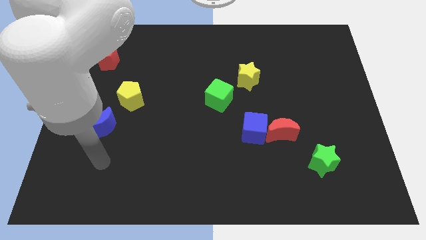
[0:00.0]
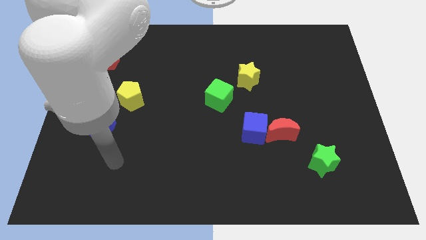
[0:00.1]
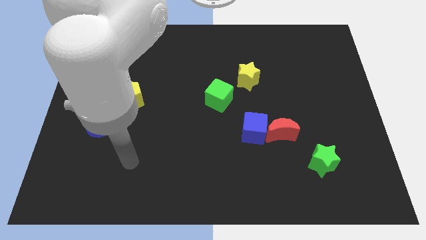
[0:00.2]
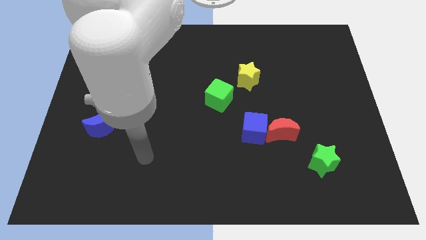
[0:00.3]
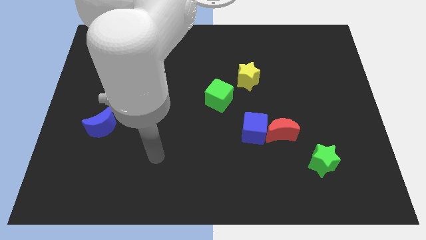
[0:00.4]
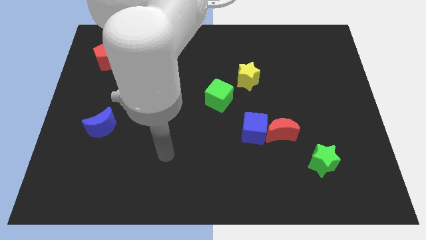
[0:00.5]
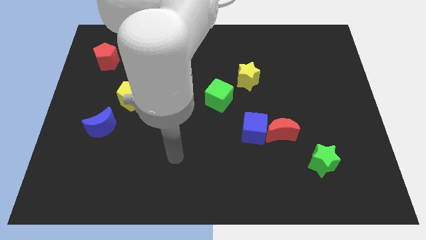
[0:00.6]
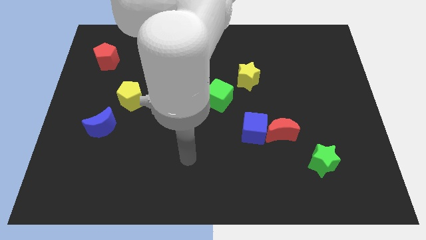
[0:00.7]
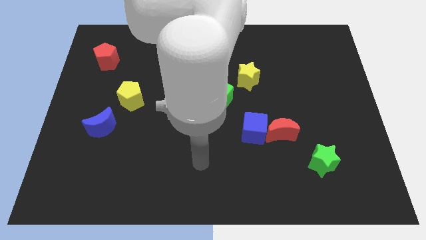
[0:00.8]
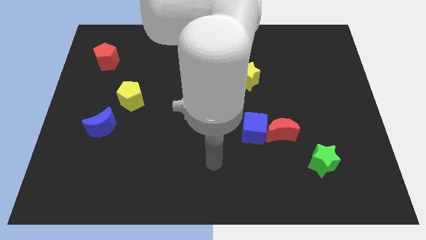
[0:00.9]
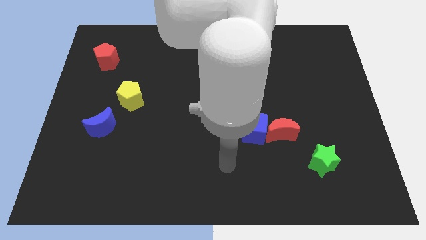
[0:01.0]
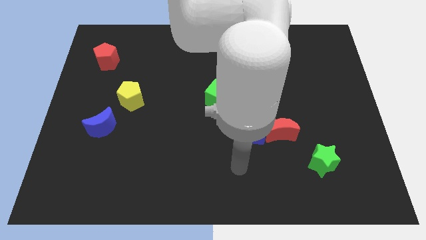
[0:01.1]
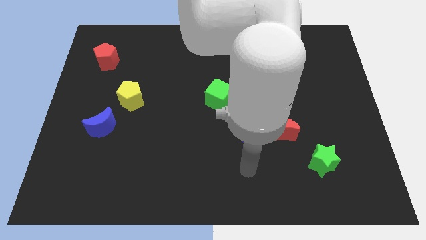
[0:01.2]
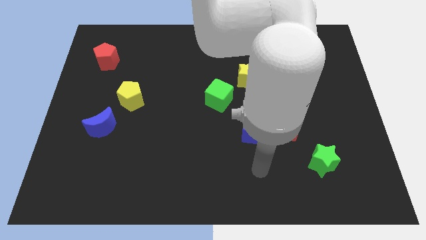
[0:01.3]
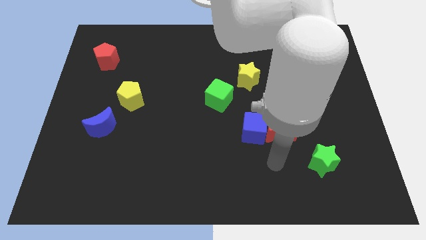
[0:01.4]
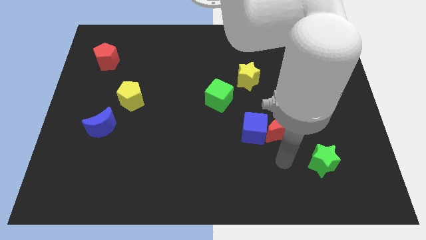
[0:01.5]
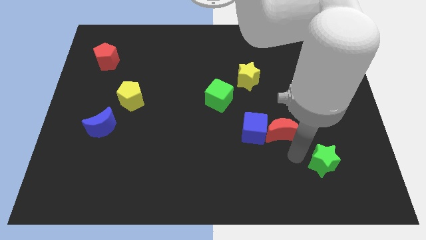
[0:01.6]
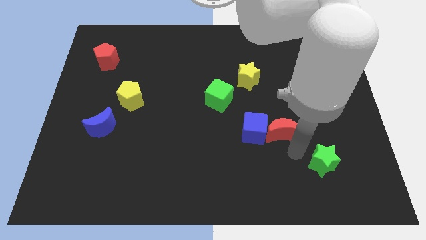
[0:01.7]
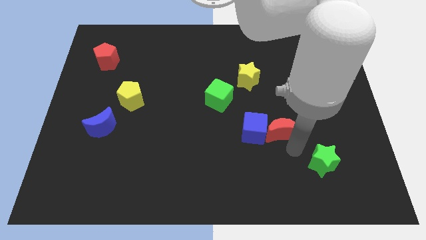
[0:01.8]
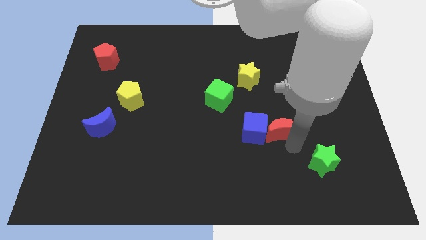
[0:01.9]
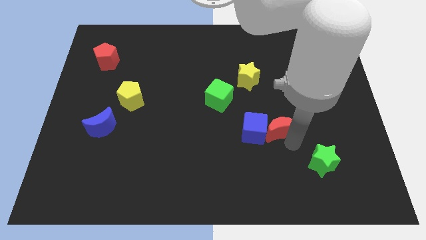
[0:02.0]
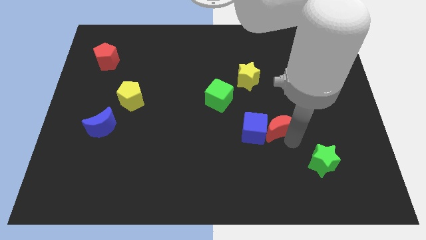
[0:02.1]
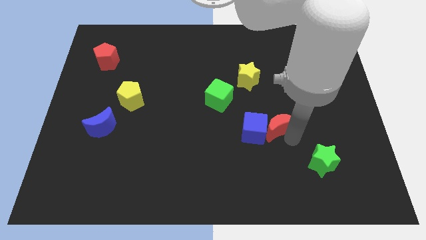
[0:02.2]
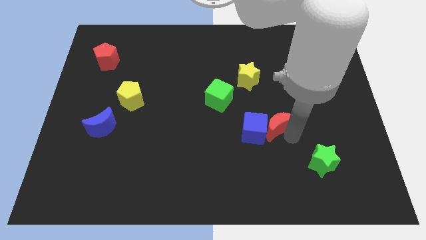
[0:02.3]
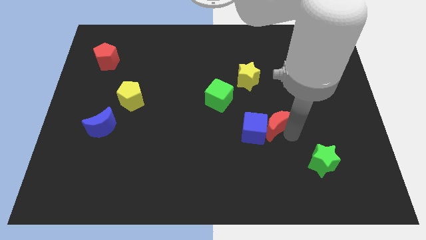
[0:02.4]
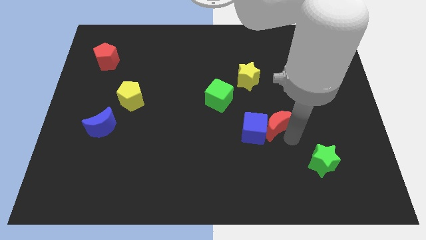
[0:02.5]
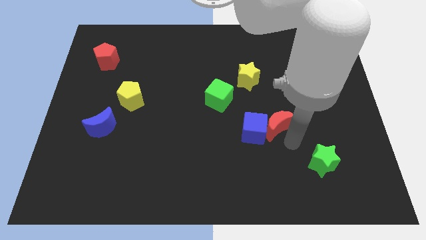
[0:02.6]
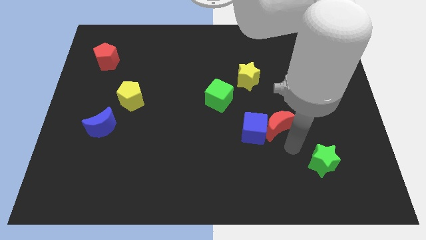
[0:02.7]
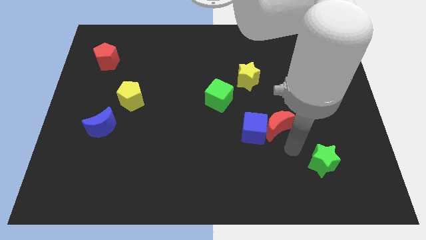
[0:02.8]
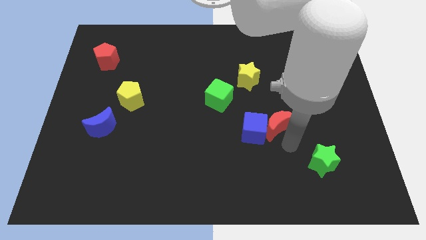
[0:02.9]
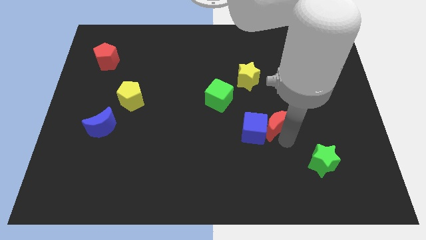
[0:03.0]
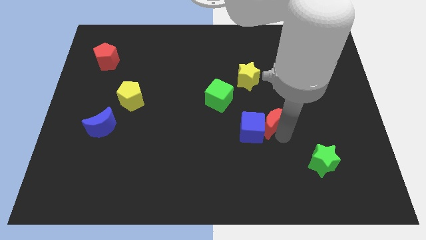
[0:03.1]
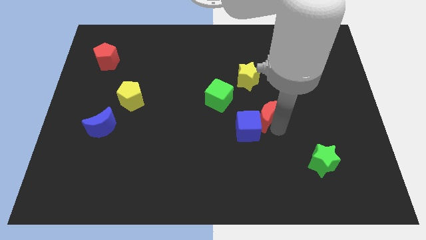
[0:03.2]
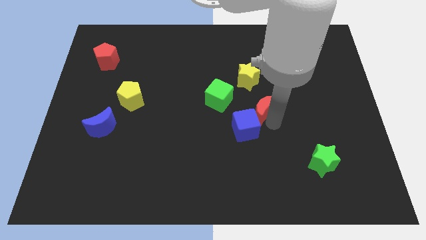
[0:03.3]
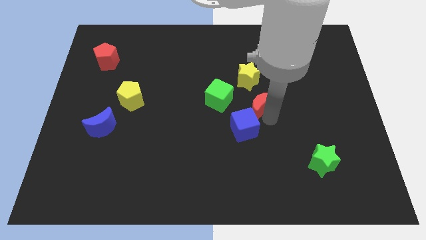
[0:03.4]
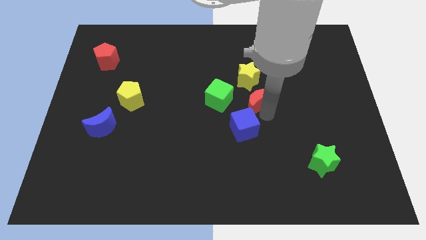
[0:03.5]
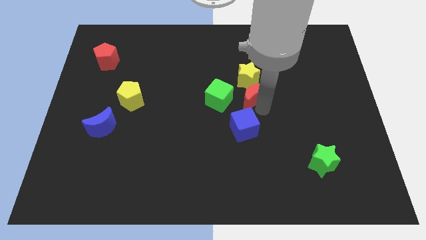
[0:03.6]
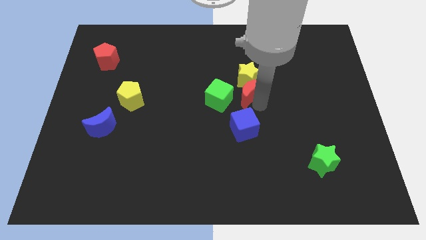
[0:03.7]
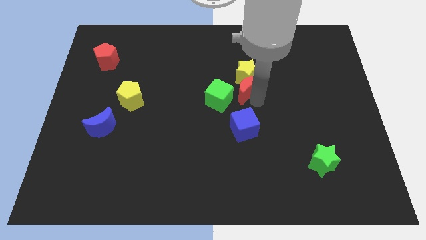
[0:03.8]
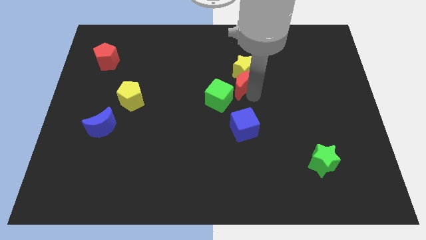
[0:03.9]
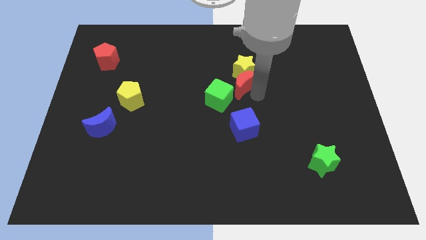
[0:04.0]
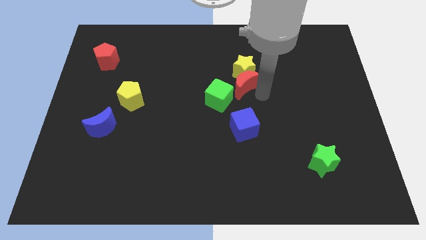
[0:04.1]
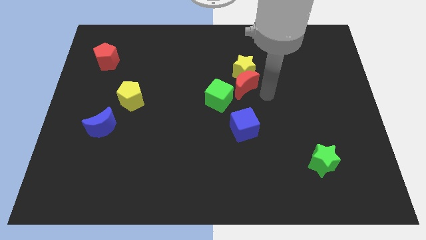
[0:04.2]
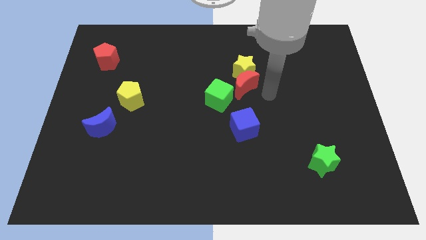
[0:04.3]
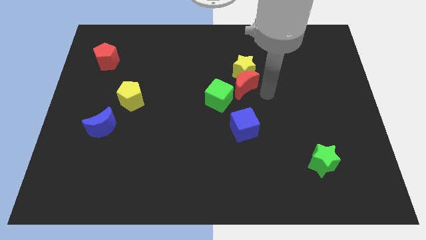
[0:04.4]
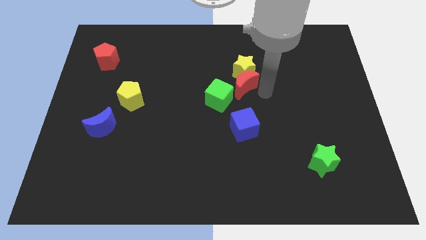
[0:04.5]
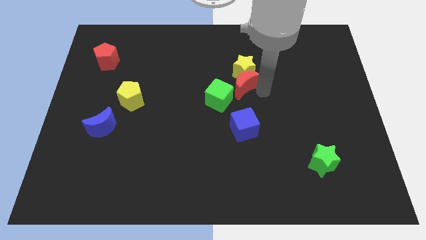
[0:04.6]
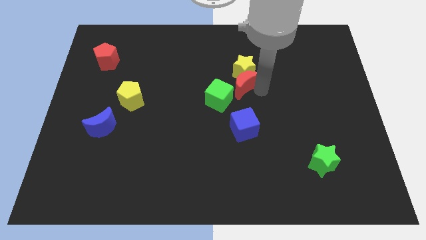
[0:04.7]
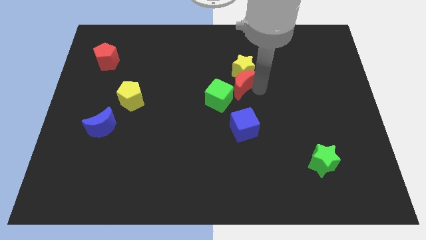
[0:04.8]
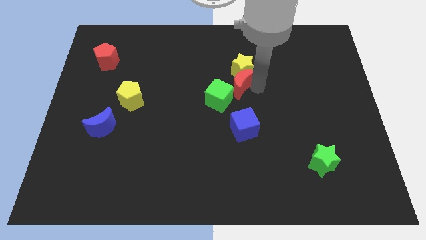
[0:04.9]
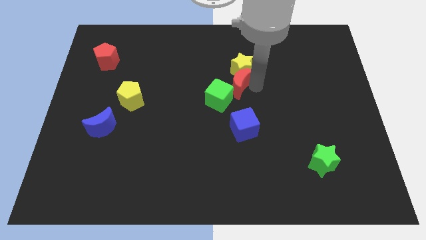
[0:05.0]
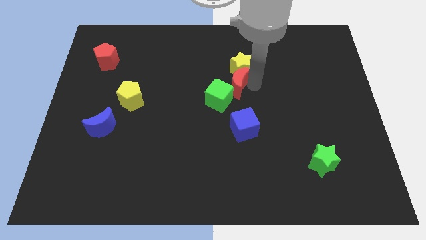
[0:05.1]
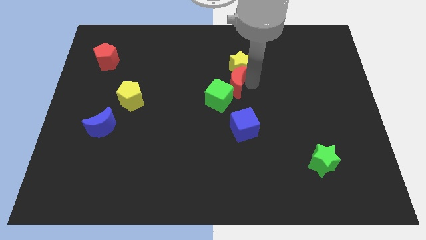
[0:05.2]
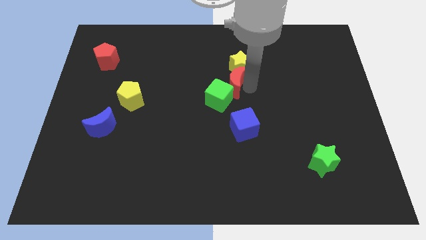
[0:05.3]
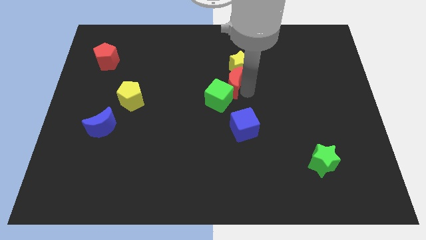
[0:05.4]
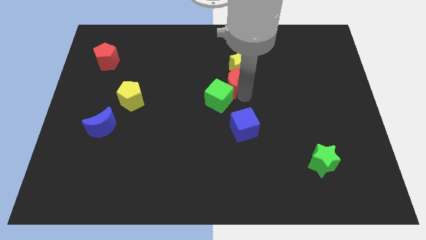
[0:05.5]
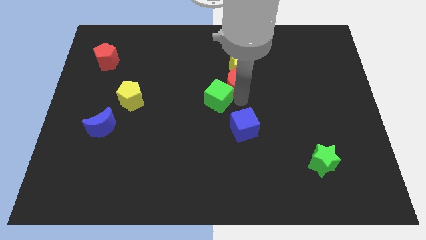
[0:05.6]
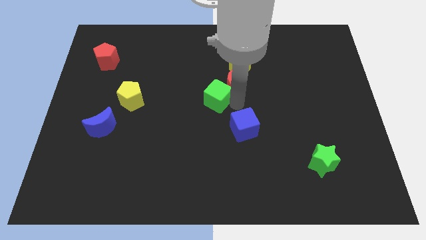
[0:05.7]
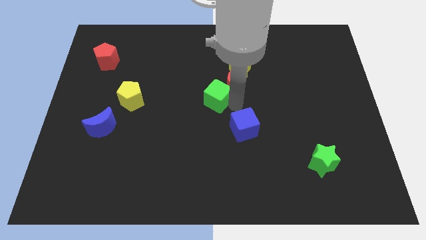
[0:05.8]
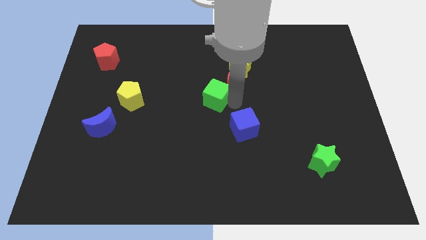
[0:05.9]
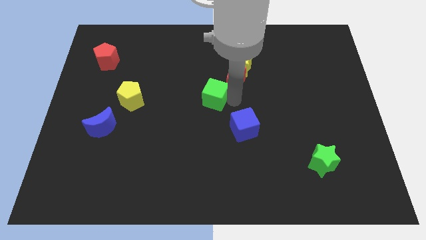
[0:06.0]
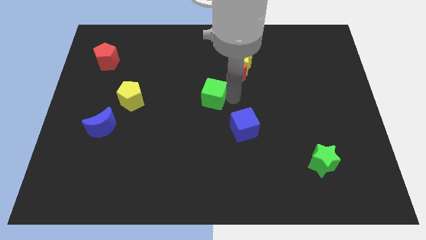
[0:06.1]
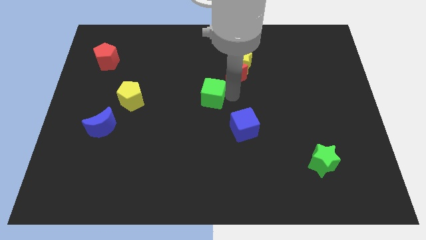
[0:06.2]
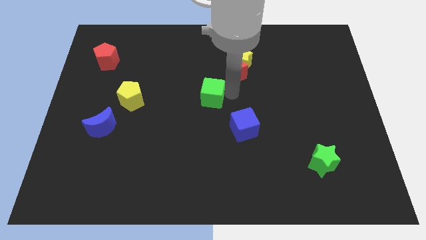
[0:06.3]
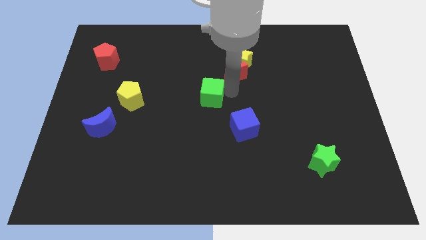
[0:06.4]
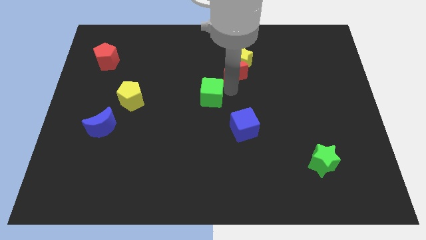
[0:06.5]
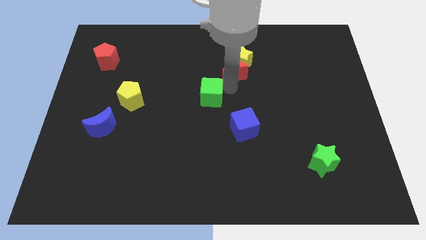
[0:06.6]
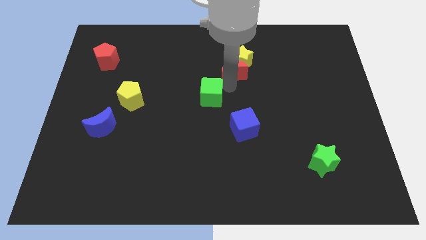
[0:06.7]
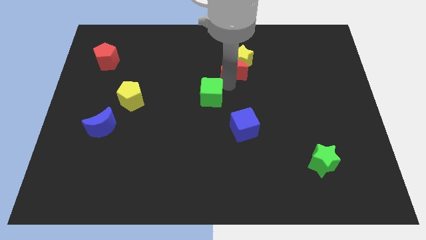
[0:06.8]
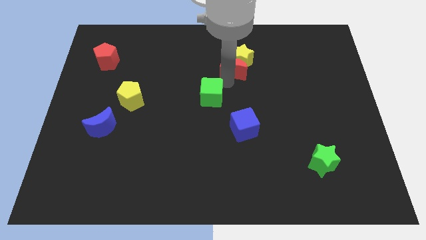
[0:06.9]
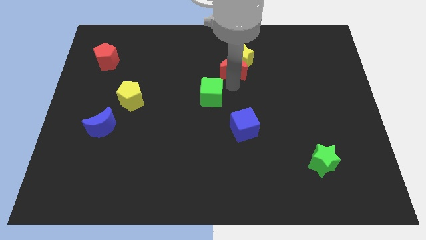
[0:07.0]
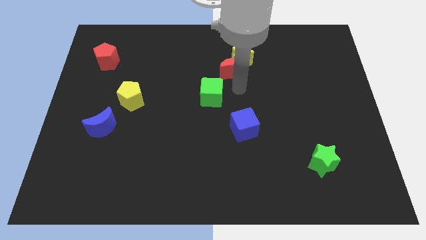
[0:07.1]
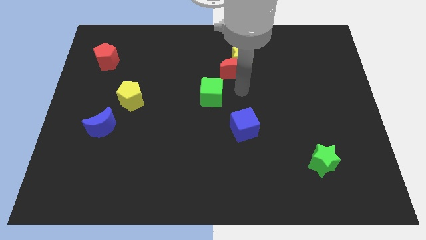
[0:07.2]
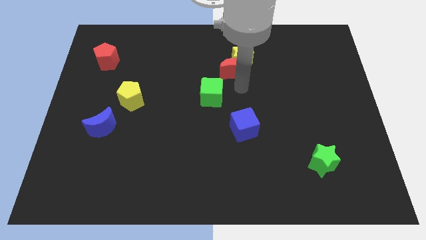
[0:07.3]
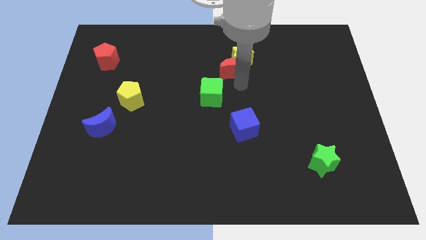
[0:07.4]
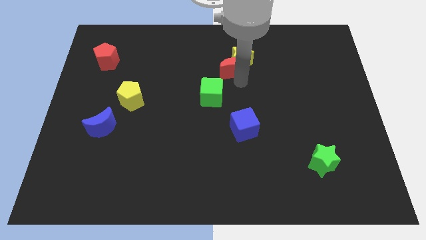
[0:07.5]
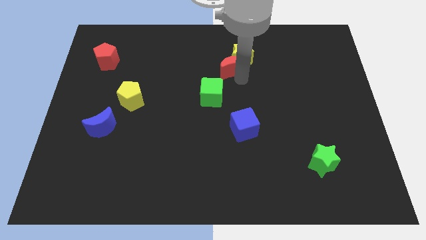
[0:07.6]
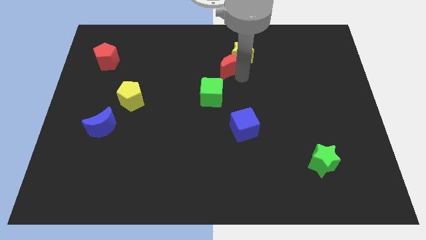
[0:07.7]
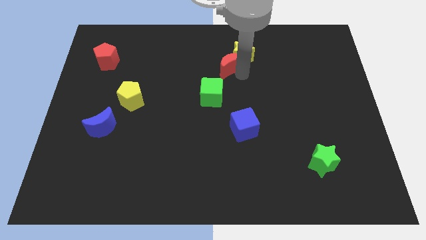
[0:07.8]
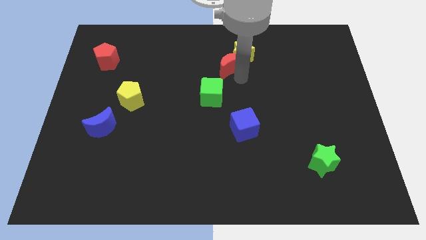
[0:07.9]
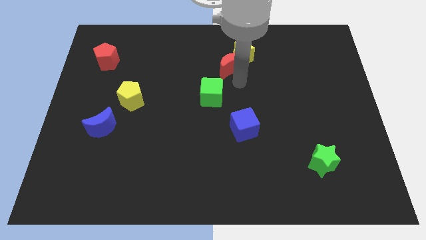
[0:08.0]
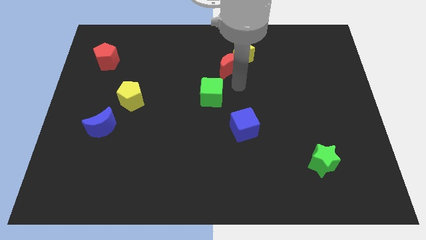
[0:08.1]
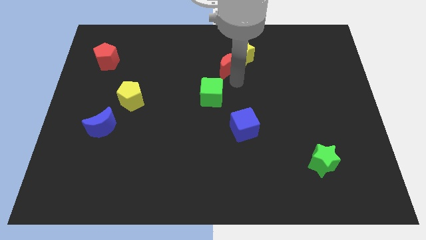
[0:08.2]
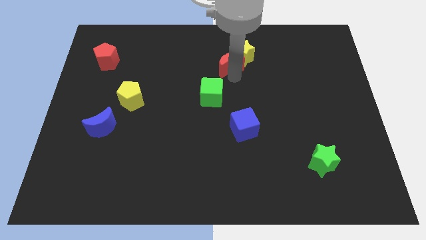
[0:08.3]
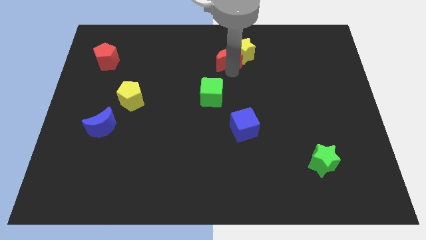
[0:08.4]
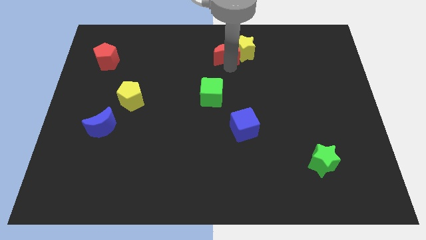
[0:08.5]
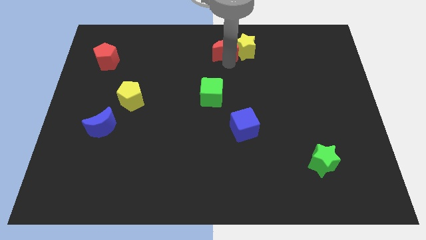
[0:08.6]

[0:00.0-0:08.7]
slide the red moon to the top
